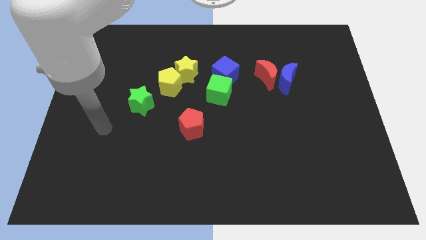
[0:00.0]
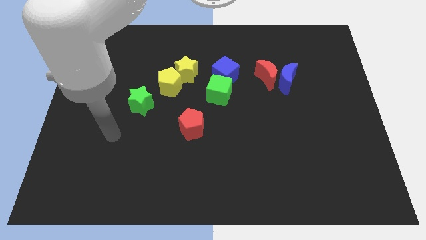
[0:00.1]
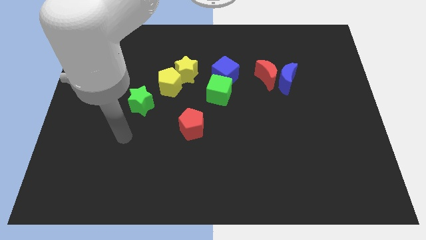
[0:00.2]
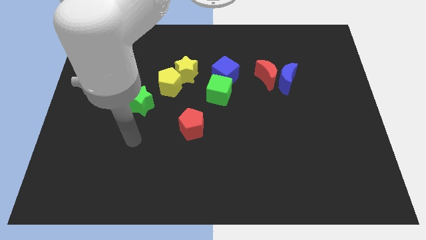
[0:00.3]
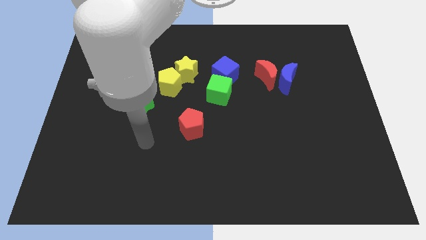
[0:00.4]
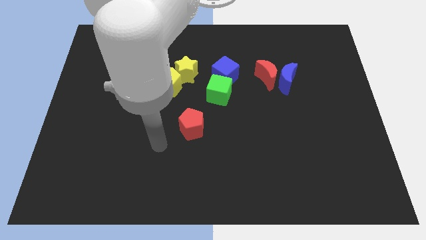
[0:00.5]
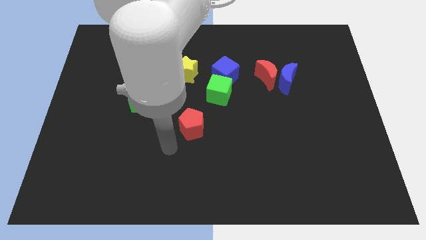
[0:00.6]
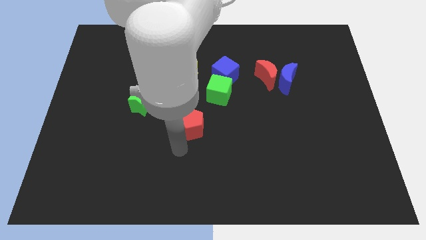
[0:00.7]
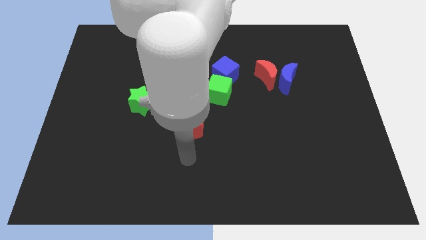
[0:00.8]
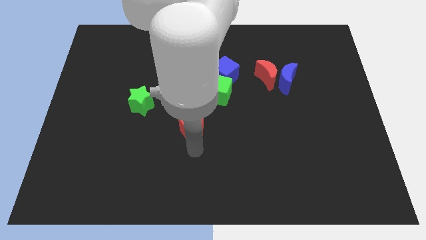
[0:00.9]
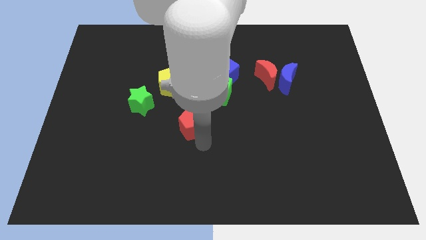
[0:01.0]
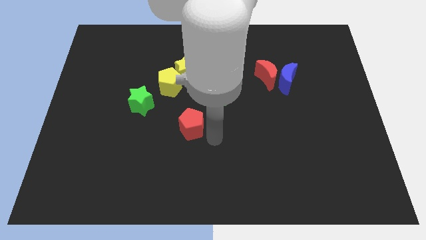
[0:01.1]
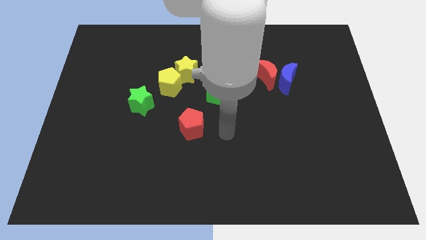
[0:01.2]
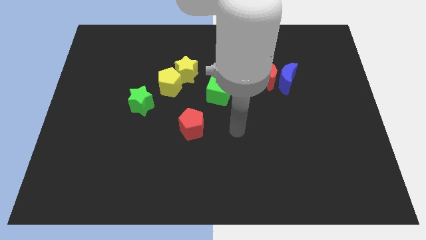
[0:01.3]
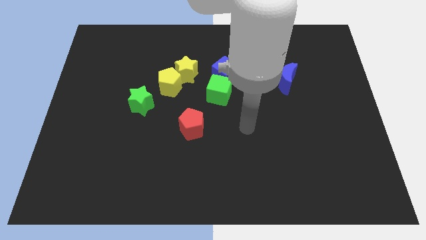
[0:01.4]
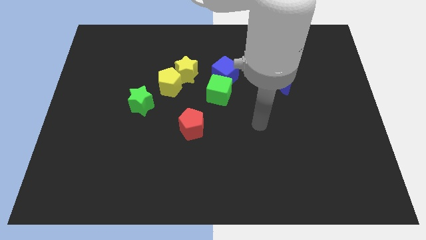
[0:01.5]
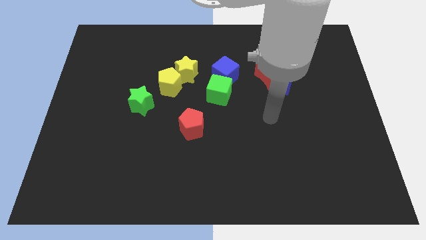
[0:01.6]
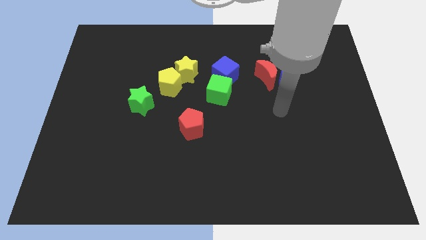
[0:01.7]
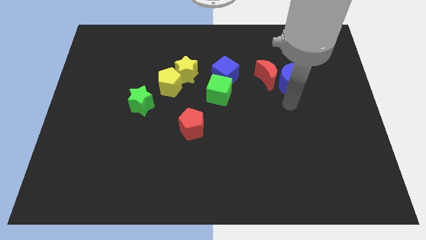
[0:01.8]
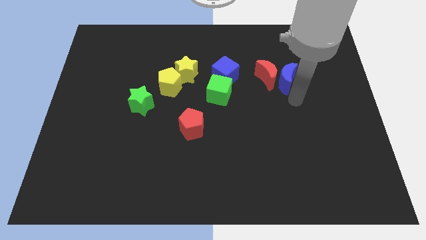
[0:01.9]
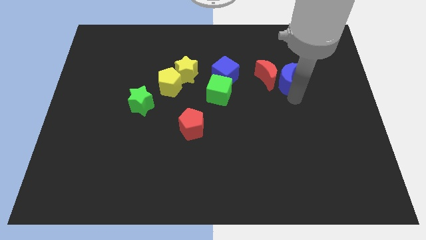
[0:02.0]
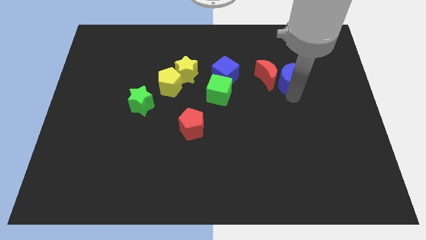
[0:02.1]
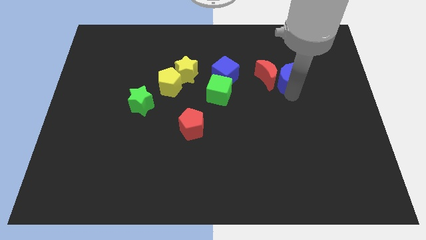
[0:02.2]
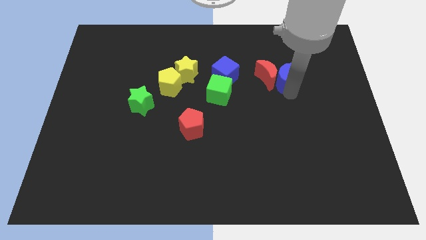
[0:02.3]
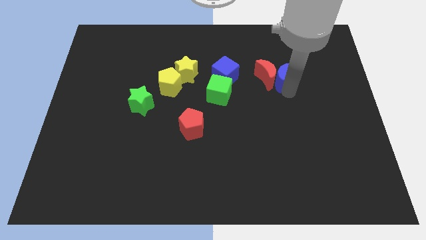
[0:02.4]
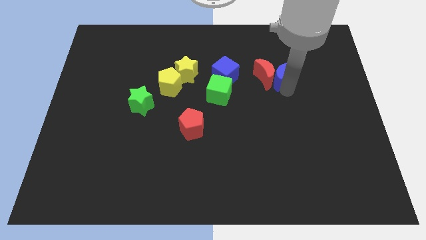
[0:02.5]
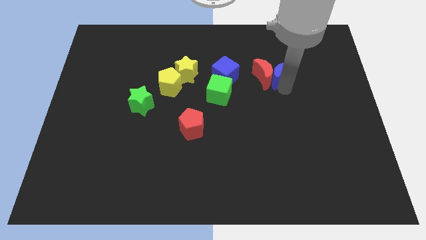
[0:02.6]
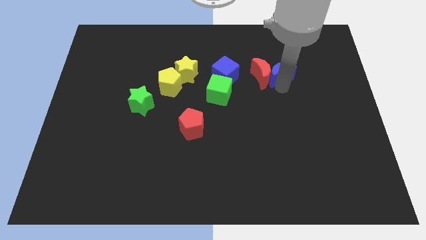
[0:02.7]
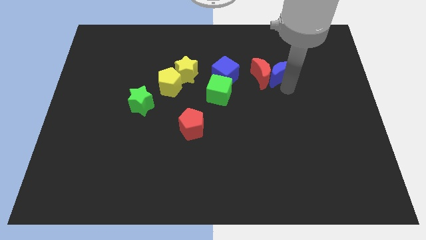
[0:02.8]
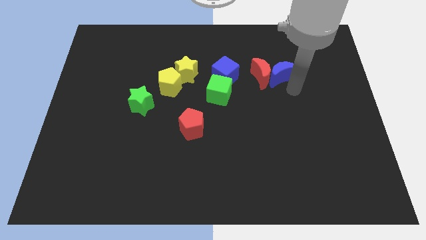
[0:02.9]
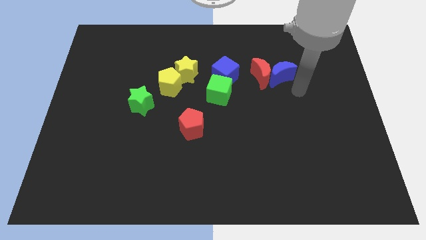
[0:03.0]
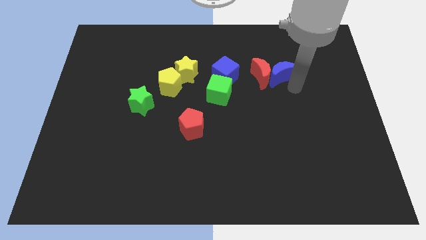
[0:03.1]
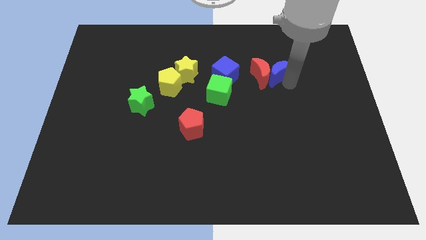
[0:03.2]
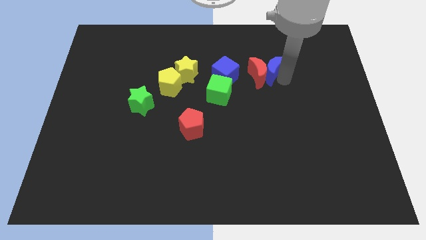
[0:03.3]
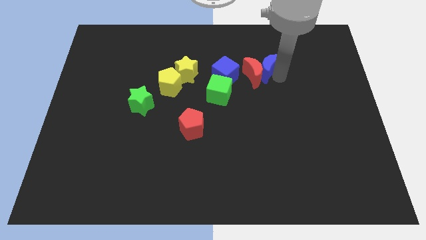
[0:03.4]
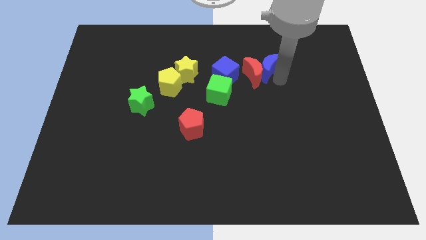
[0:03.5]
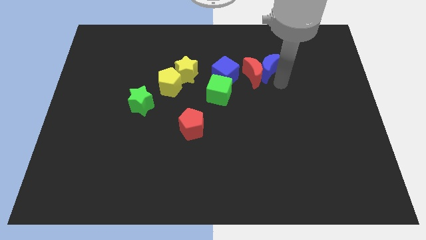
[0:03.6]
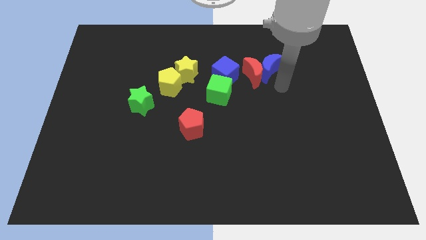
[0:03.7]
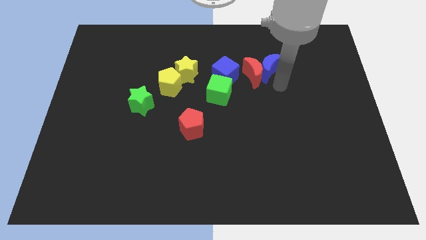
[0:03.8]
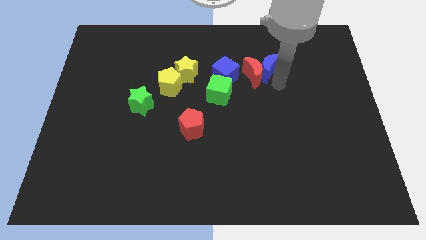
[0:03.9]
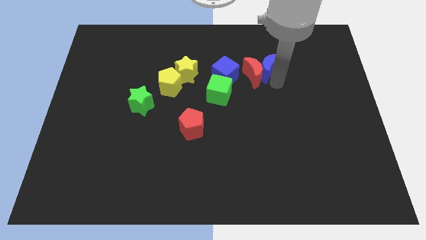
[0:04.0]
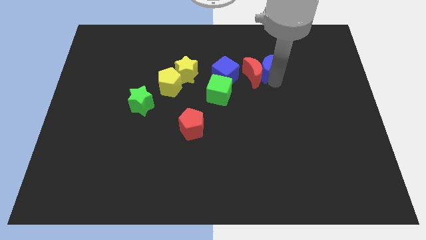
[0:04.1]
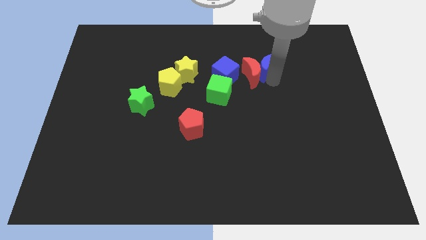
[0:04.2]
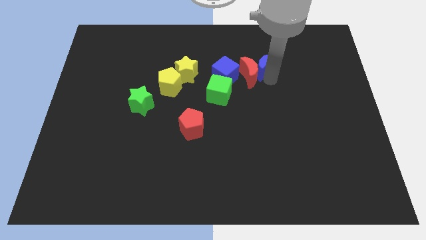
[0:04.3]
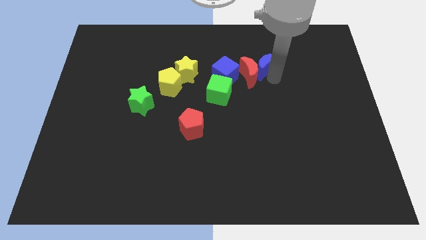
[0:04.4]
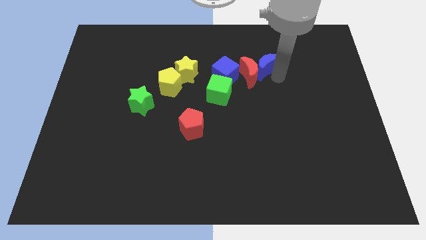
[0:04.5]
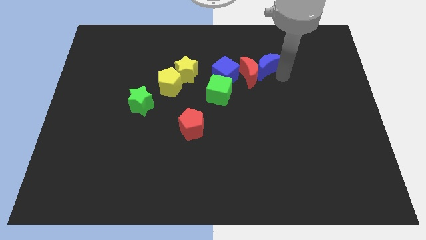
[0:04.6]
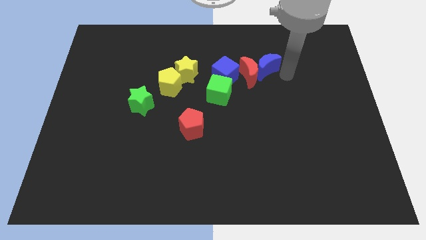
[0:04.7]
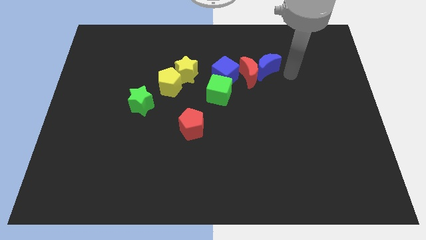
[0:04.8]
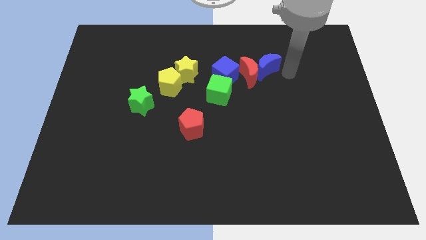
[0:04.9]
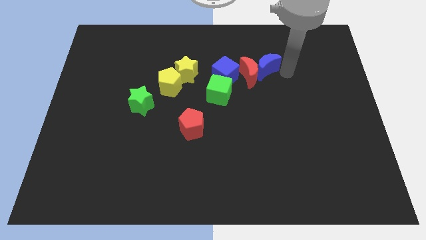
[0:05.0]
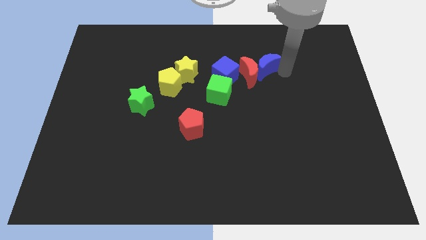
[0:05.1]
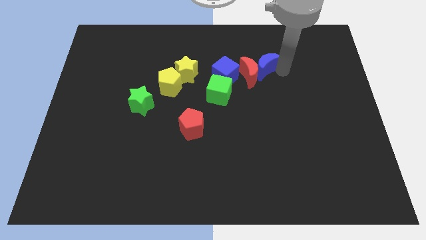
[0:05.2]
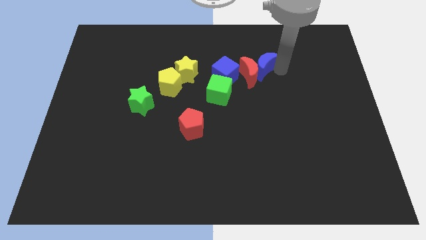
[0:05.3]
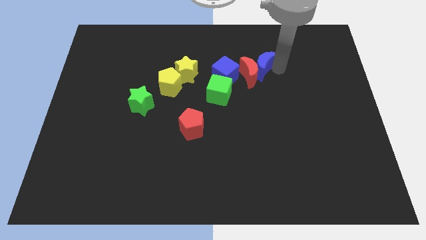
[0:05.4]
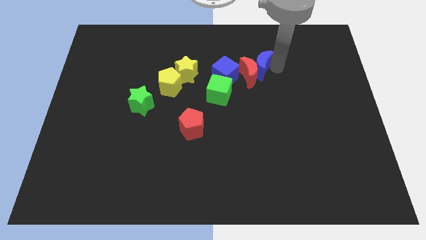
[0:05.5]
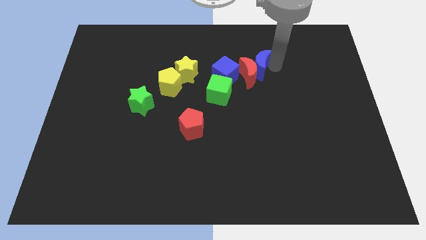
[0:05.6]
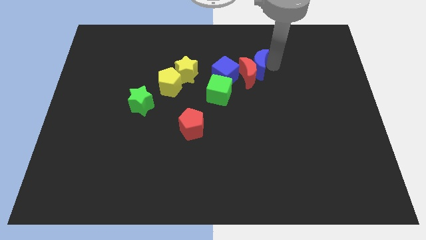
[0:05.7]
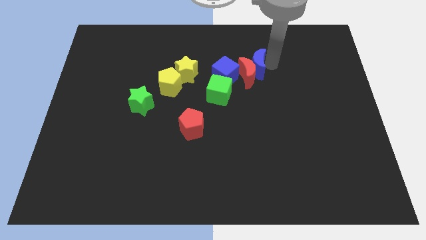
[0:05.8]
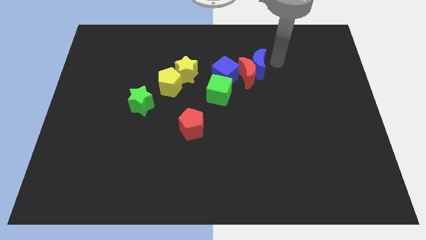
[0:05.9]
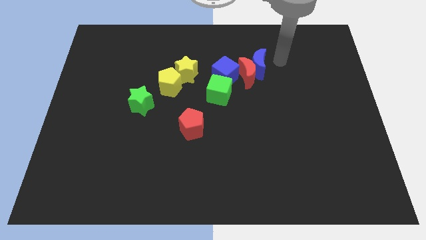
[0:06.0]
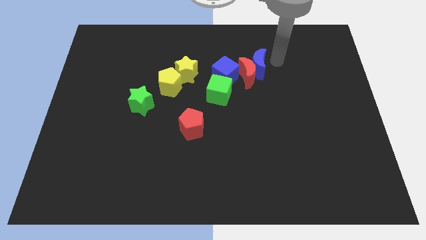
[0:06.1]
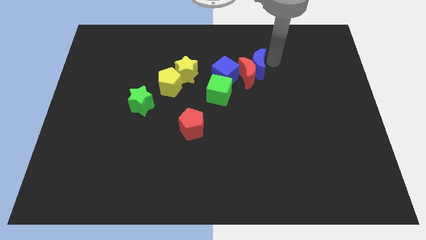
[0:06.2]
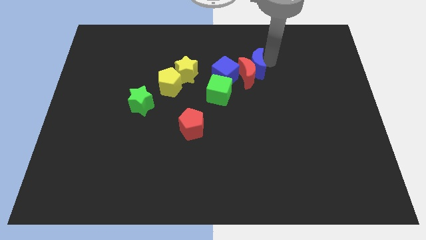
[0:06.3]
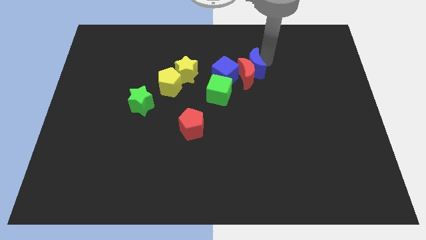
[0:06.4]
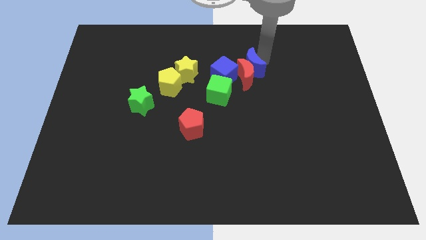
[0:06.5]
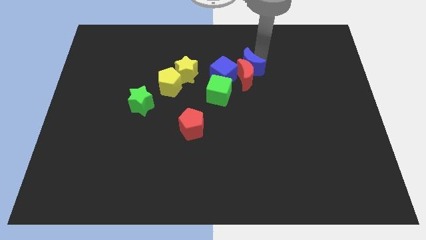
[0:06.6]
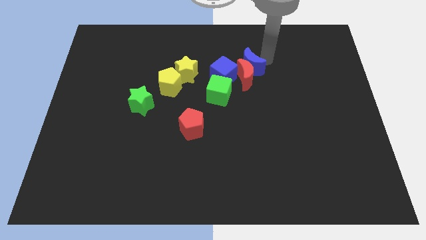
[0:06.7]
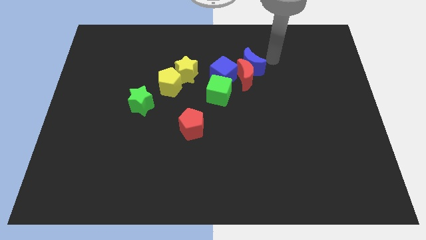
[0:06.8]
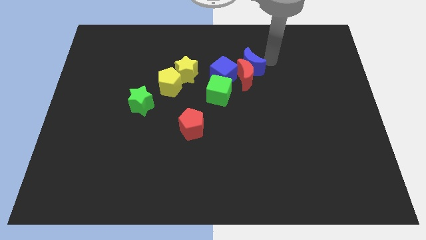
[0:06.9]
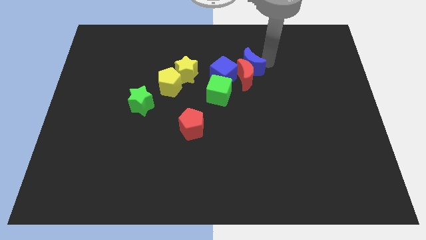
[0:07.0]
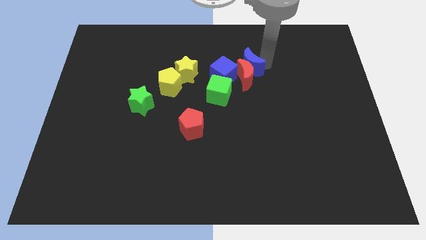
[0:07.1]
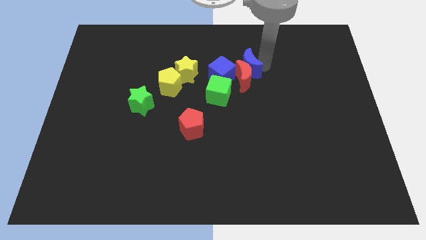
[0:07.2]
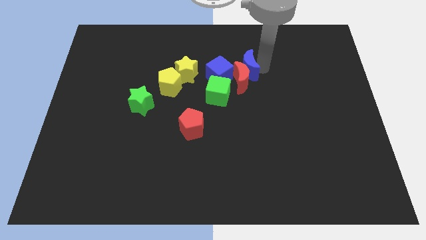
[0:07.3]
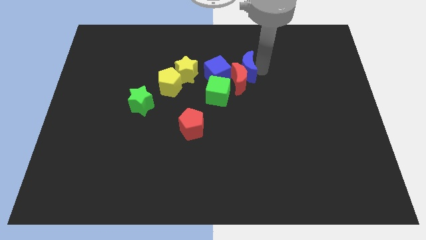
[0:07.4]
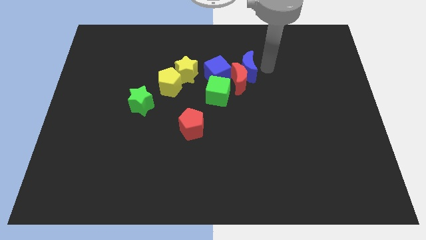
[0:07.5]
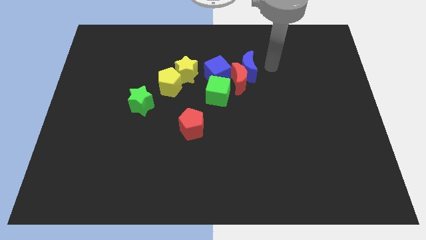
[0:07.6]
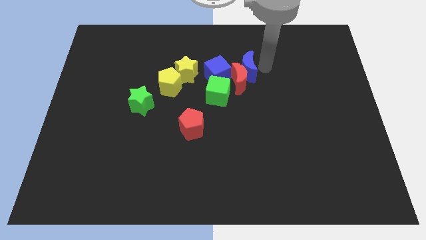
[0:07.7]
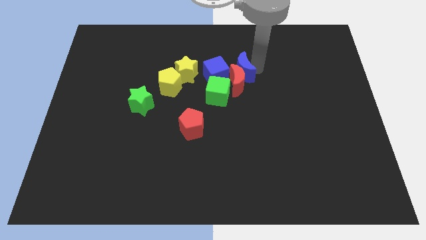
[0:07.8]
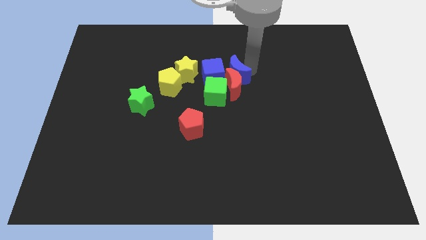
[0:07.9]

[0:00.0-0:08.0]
put the blue moon next to the blue cube
